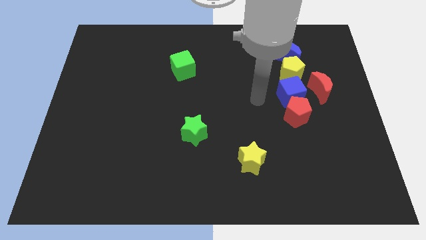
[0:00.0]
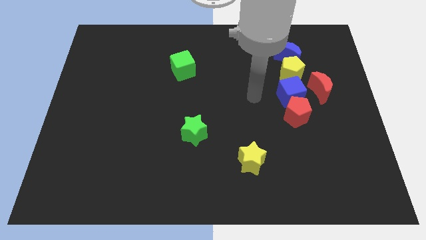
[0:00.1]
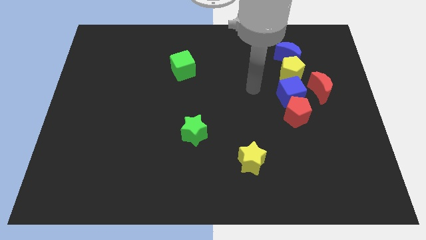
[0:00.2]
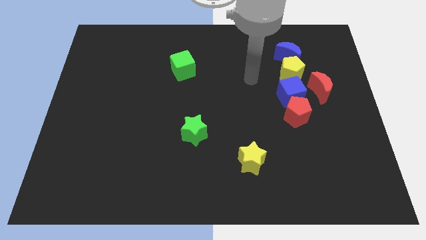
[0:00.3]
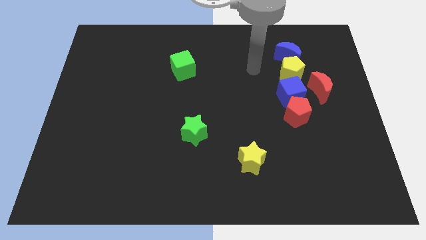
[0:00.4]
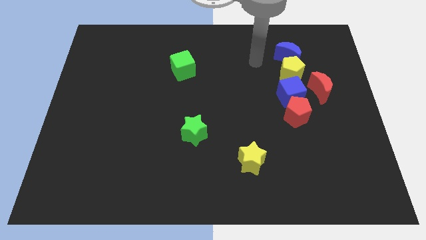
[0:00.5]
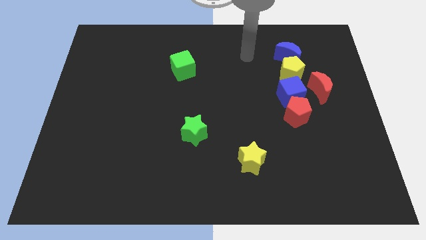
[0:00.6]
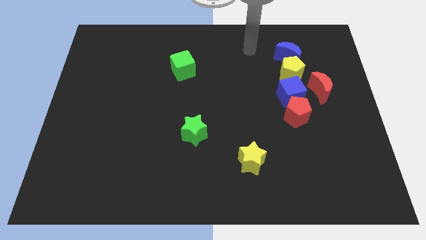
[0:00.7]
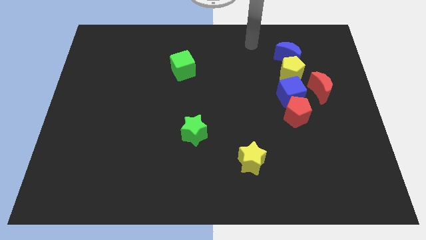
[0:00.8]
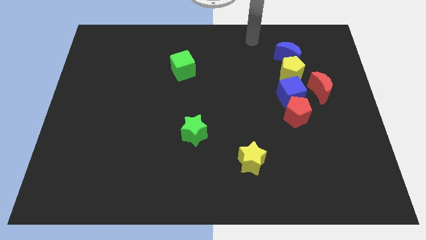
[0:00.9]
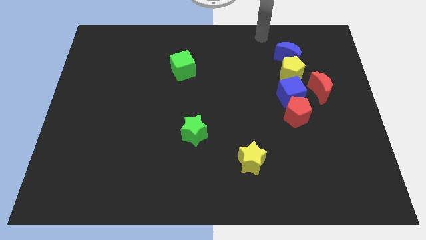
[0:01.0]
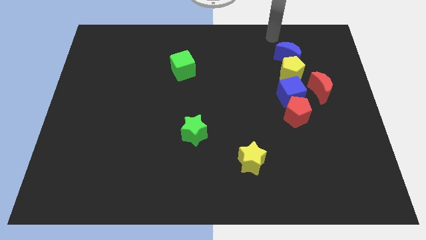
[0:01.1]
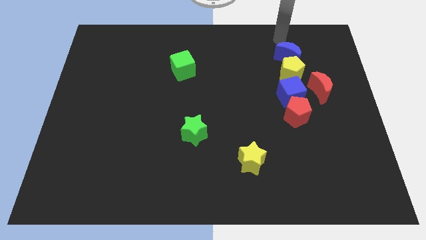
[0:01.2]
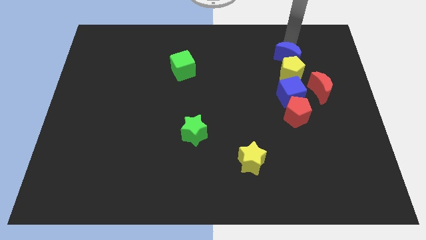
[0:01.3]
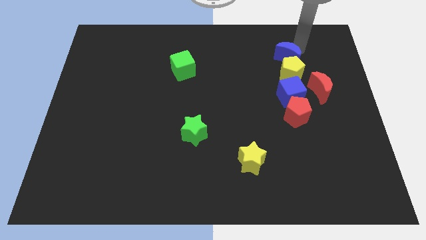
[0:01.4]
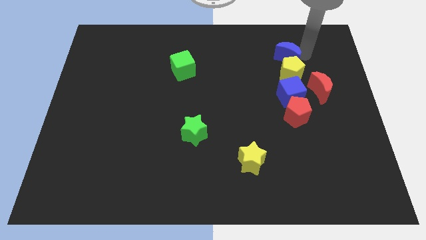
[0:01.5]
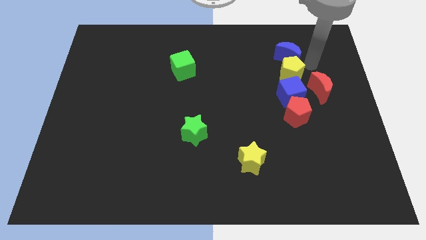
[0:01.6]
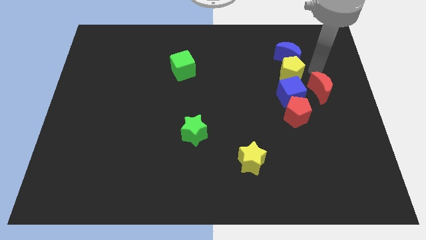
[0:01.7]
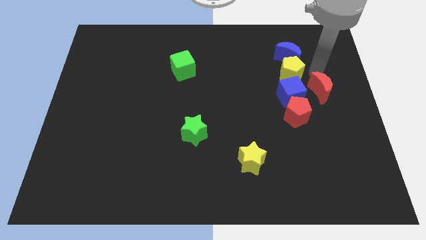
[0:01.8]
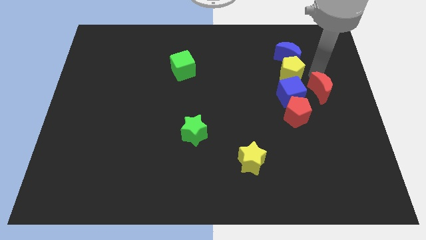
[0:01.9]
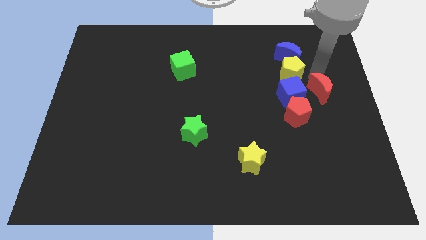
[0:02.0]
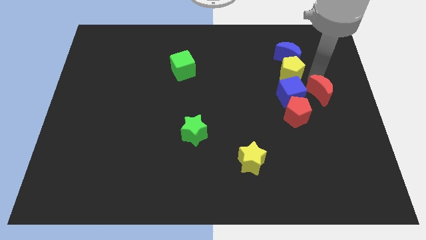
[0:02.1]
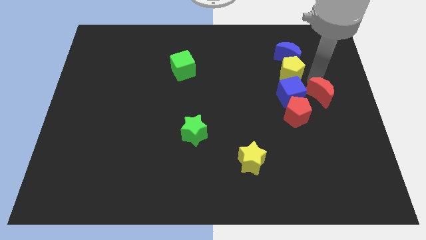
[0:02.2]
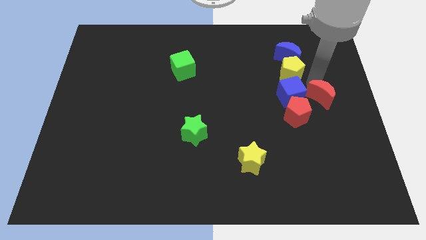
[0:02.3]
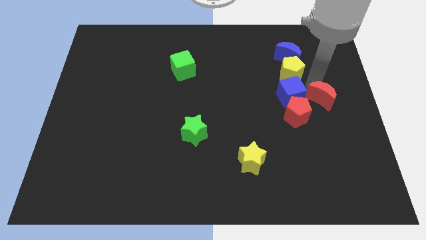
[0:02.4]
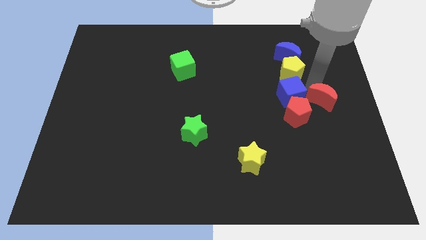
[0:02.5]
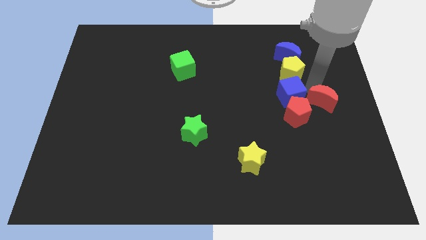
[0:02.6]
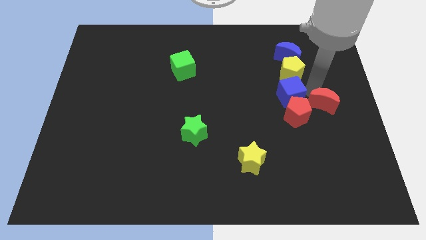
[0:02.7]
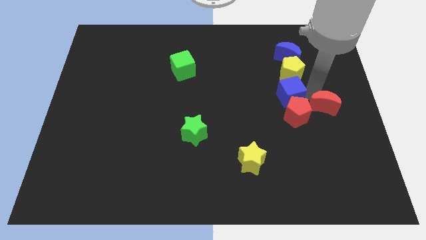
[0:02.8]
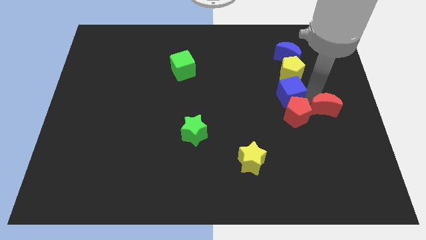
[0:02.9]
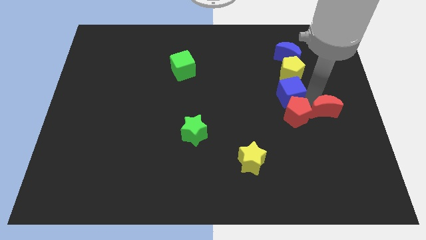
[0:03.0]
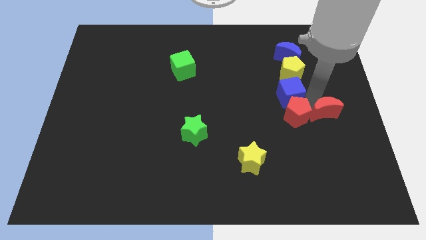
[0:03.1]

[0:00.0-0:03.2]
push the red moon down a little bit

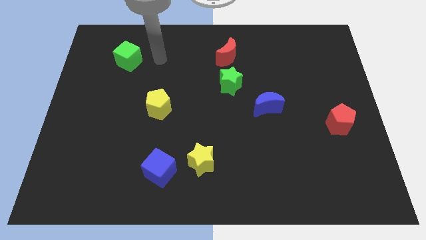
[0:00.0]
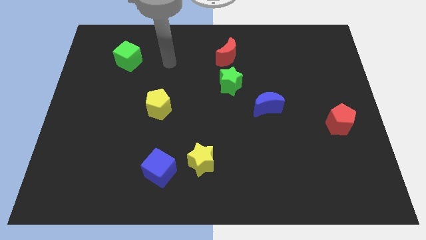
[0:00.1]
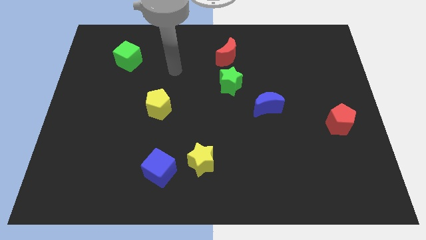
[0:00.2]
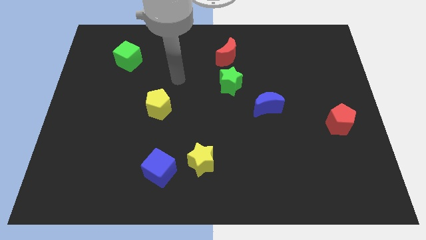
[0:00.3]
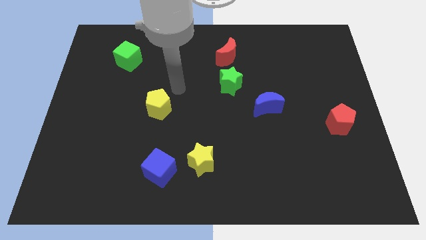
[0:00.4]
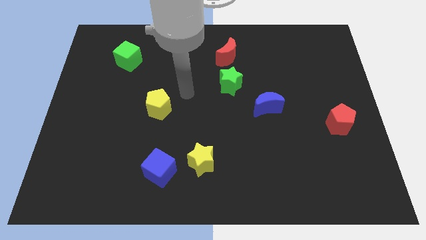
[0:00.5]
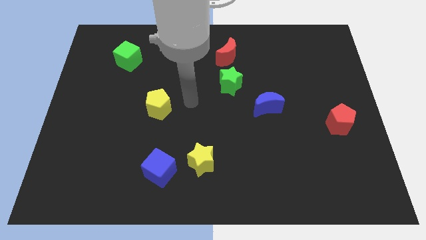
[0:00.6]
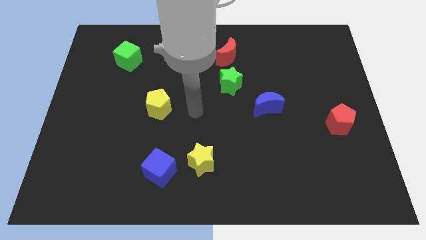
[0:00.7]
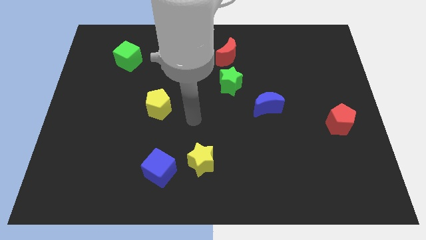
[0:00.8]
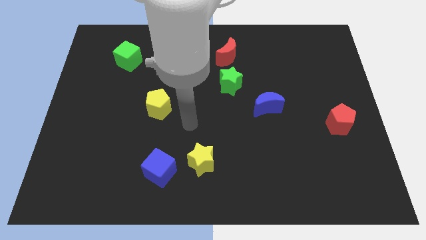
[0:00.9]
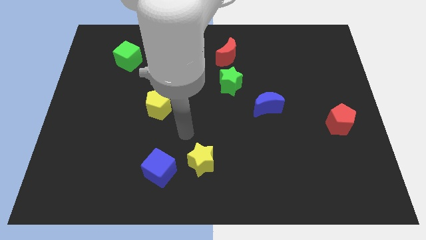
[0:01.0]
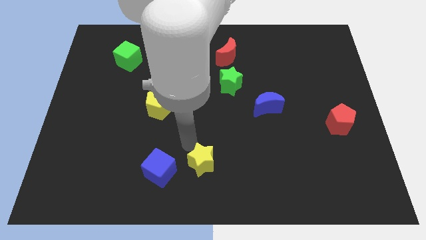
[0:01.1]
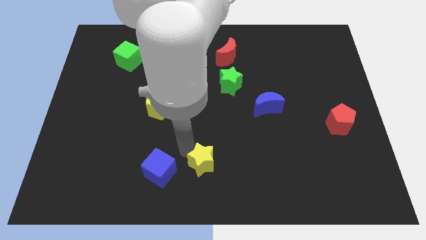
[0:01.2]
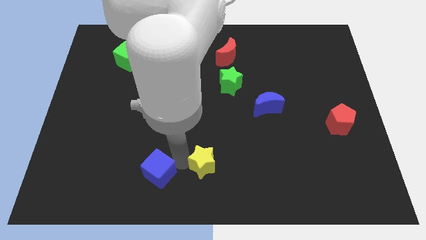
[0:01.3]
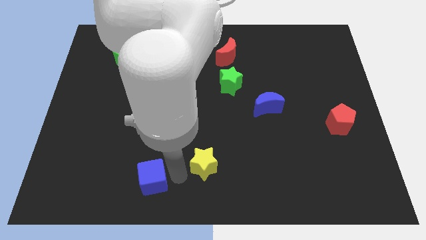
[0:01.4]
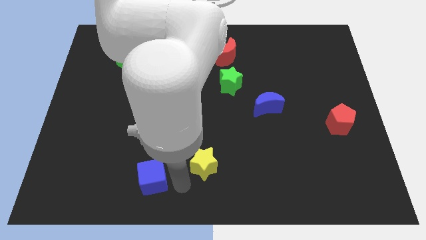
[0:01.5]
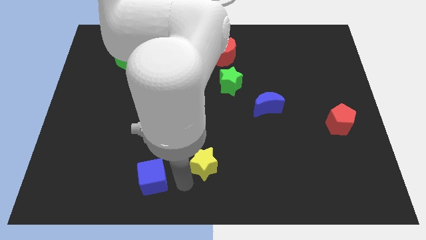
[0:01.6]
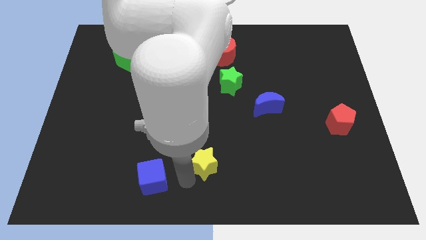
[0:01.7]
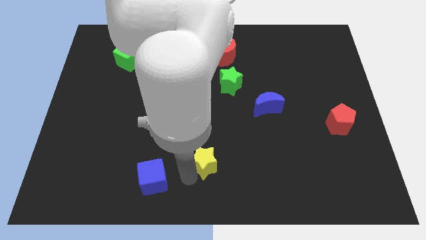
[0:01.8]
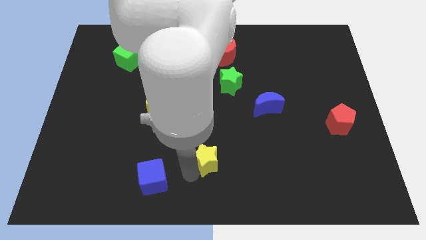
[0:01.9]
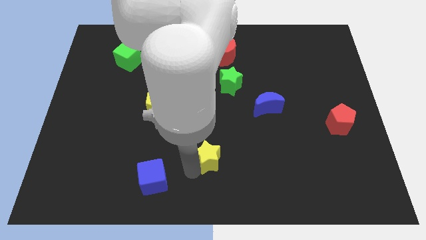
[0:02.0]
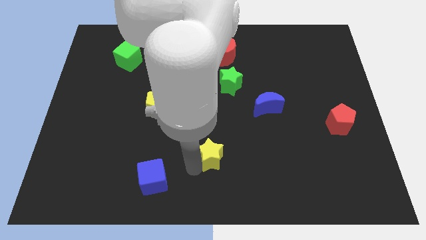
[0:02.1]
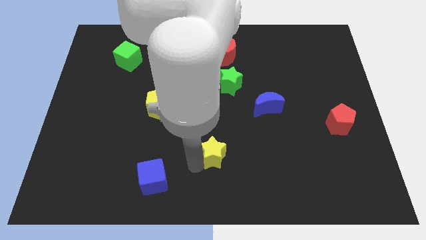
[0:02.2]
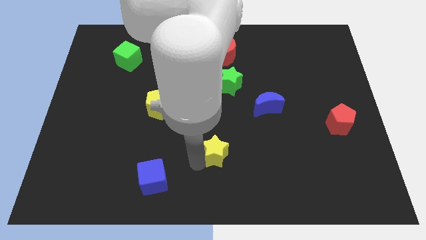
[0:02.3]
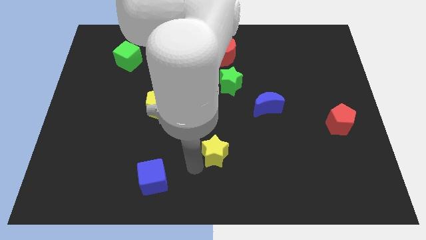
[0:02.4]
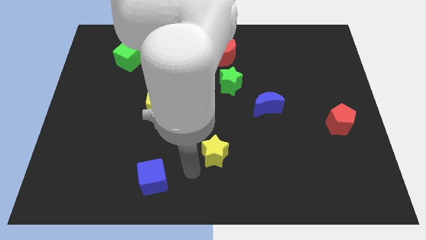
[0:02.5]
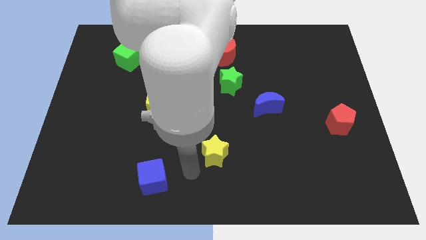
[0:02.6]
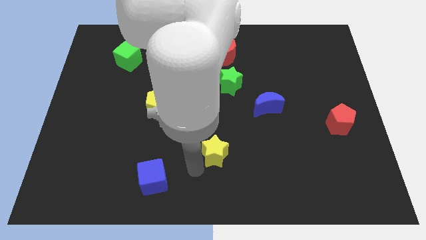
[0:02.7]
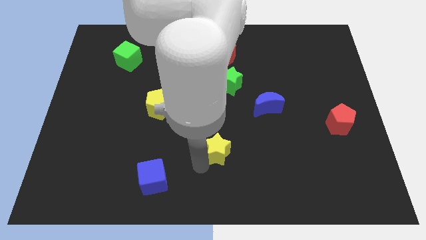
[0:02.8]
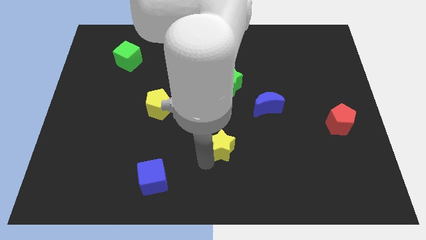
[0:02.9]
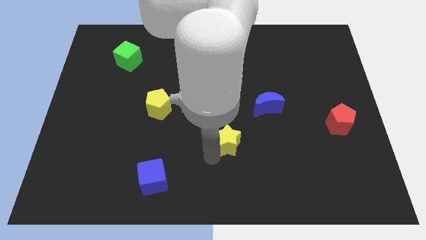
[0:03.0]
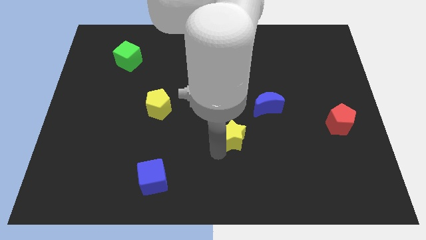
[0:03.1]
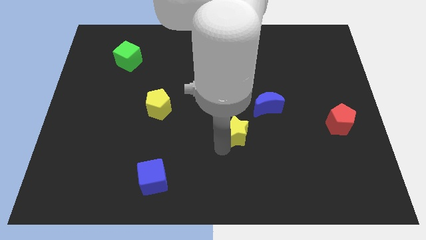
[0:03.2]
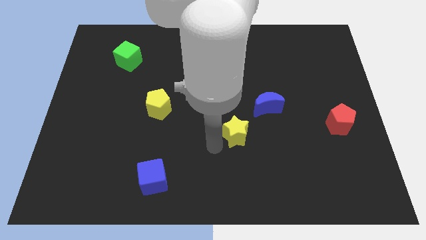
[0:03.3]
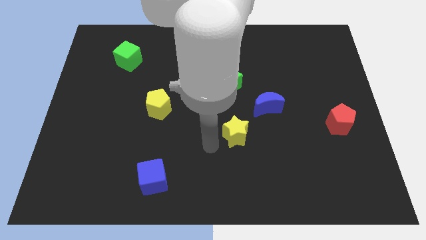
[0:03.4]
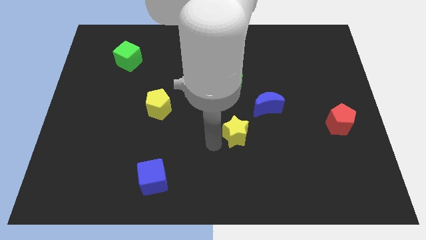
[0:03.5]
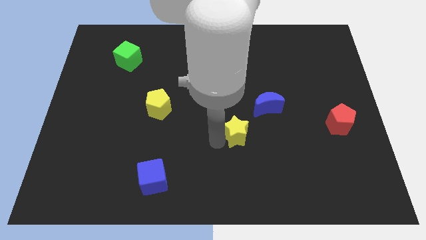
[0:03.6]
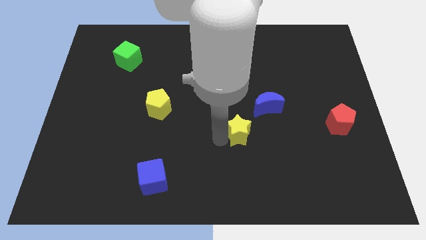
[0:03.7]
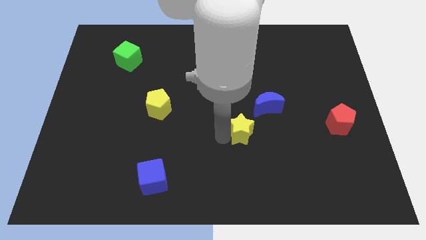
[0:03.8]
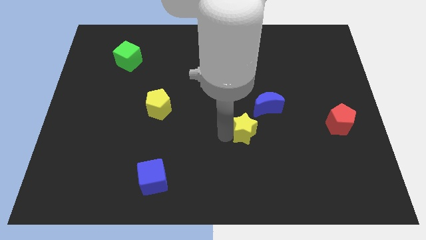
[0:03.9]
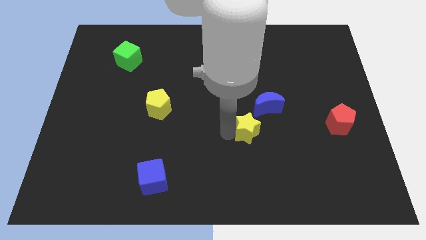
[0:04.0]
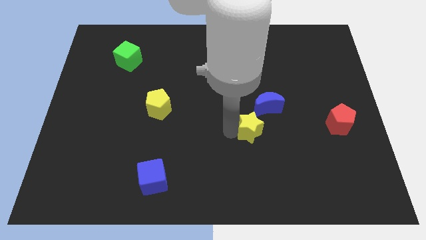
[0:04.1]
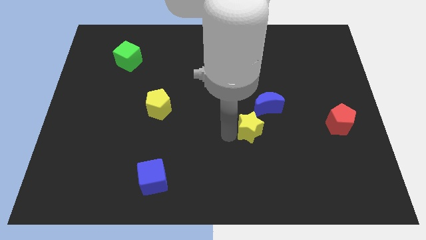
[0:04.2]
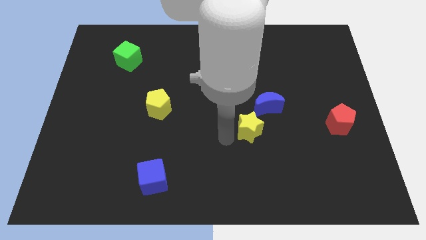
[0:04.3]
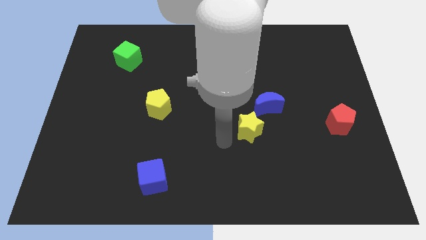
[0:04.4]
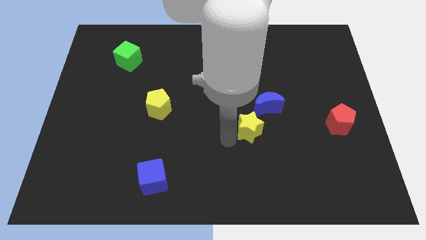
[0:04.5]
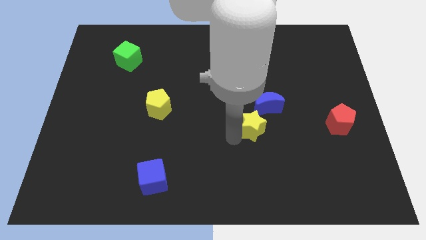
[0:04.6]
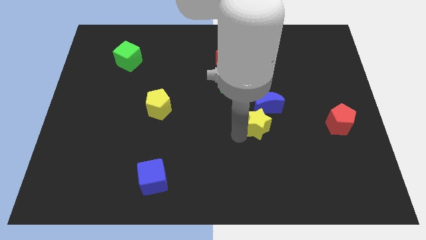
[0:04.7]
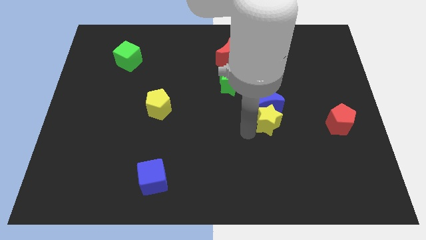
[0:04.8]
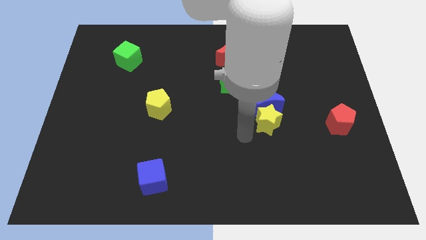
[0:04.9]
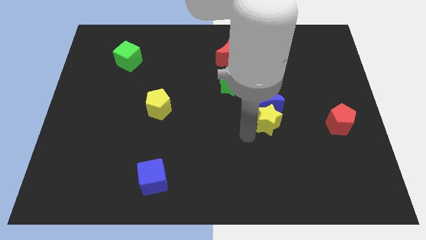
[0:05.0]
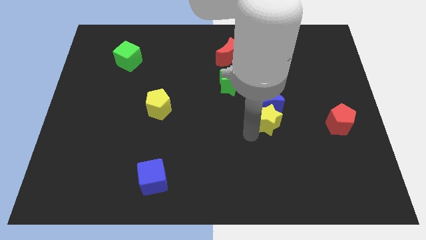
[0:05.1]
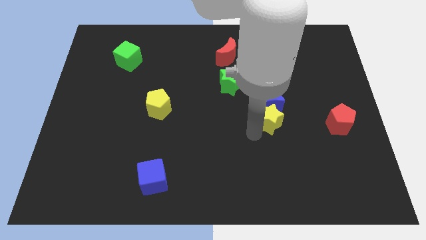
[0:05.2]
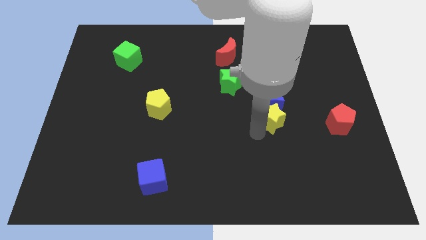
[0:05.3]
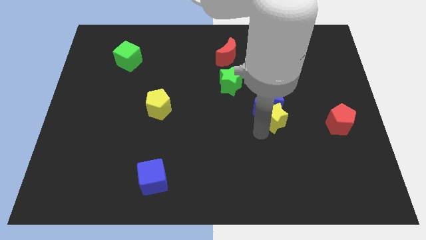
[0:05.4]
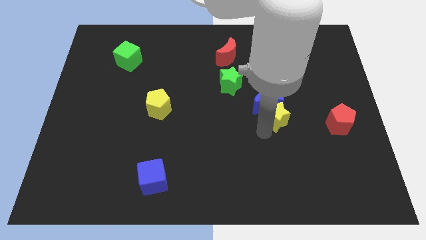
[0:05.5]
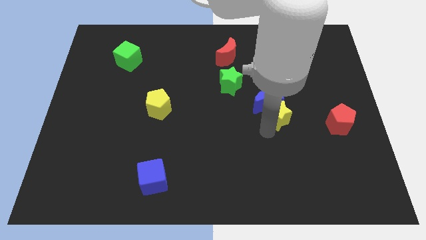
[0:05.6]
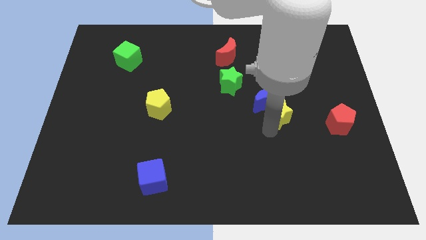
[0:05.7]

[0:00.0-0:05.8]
push the yellow star up and to the right
